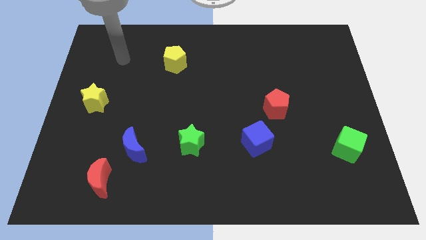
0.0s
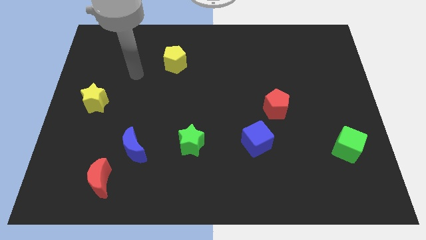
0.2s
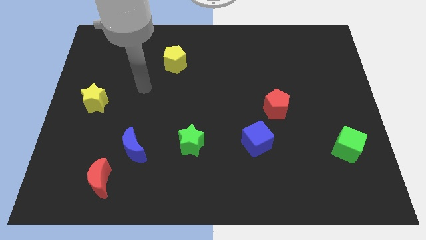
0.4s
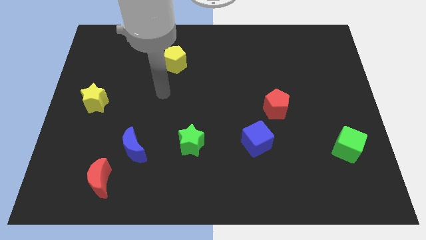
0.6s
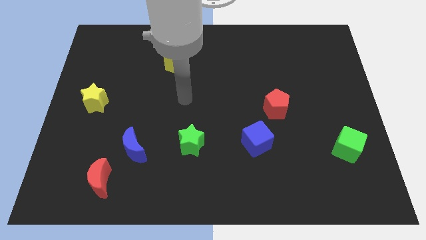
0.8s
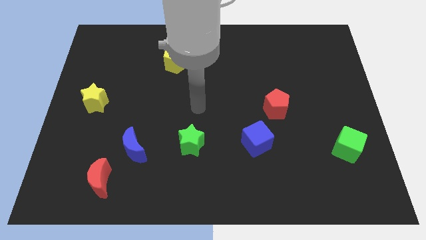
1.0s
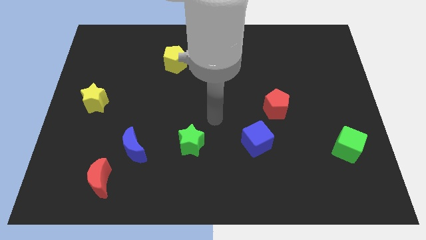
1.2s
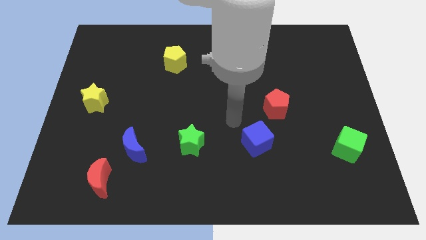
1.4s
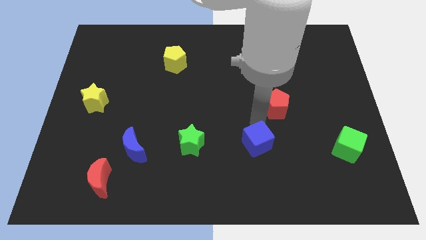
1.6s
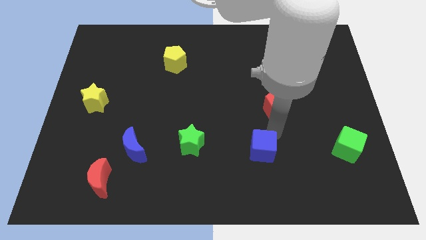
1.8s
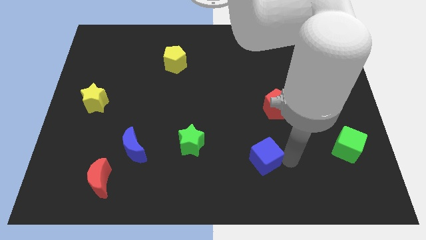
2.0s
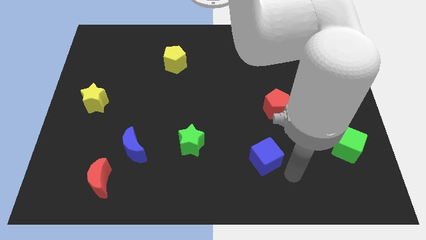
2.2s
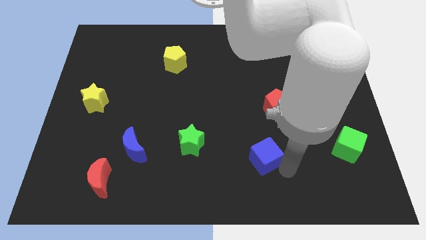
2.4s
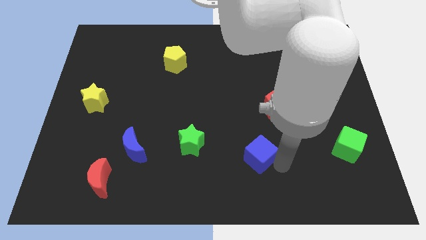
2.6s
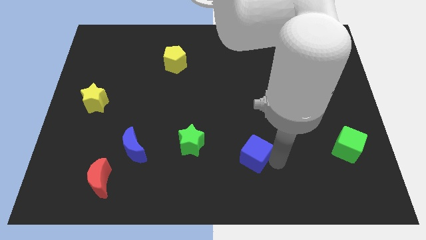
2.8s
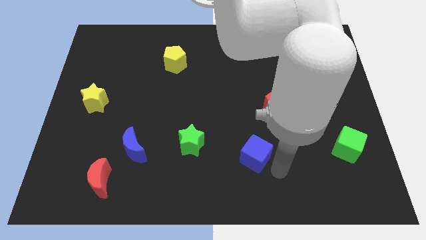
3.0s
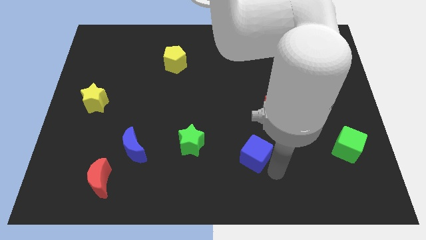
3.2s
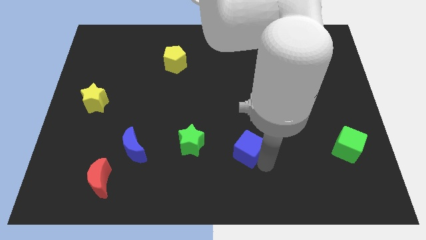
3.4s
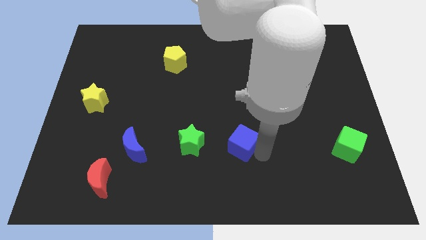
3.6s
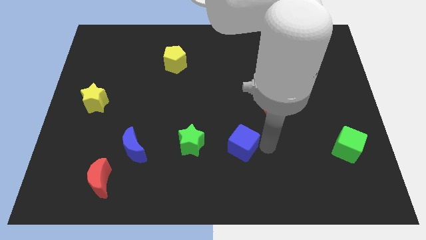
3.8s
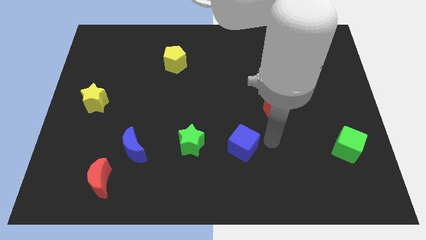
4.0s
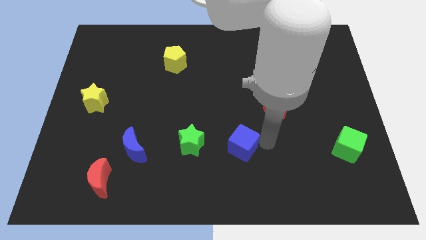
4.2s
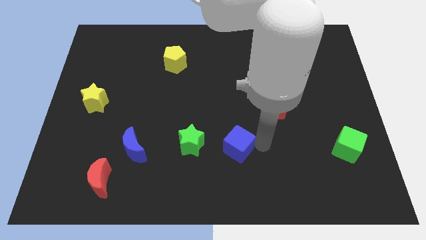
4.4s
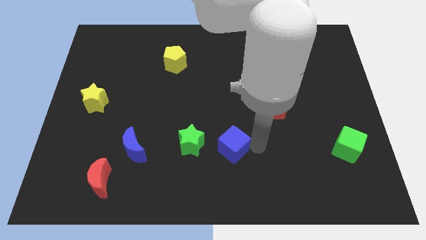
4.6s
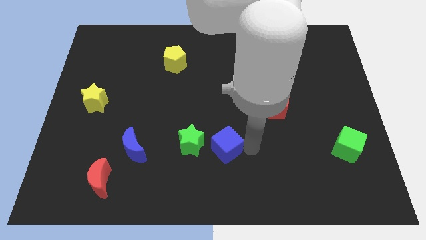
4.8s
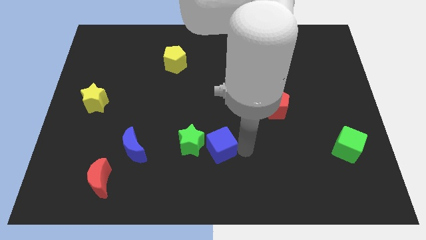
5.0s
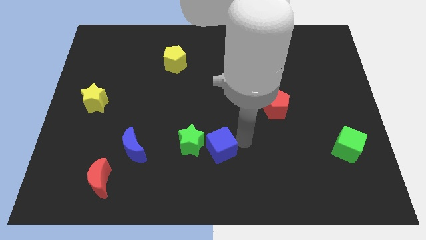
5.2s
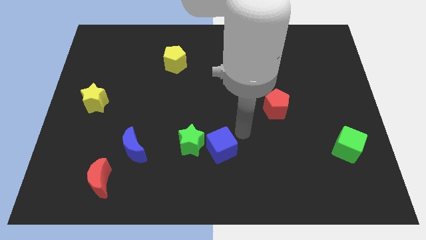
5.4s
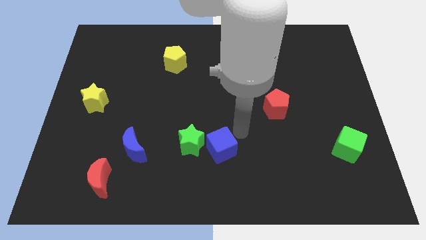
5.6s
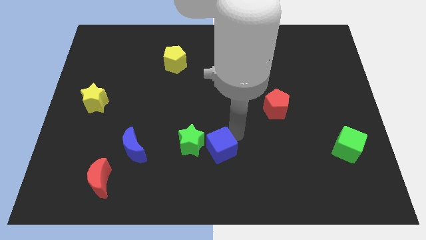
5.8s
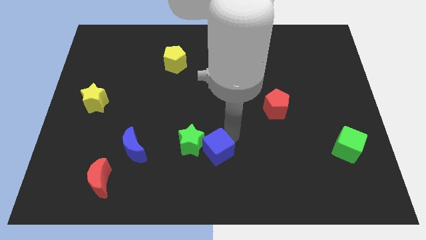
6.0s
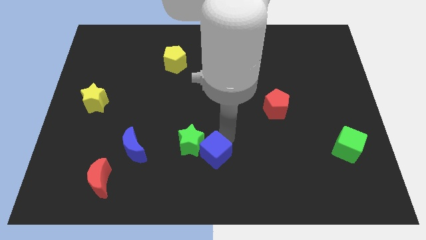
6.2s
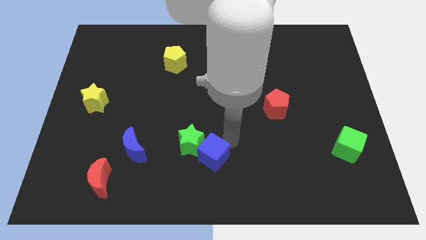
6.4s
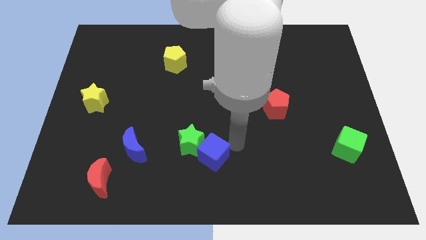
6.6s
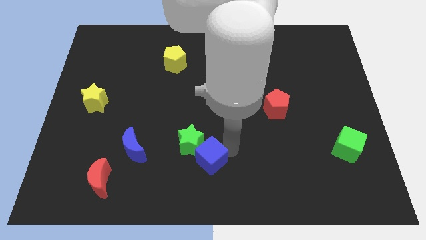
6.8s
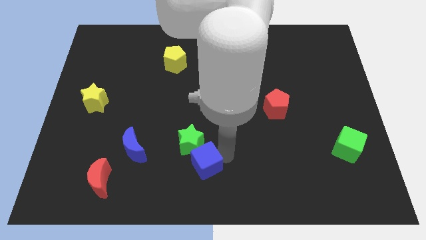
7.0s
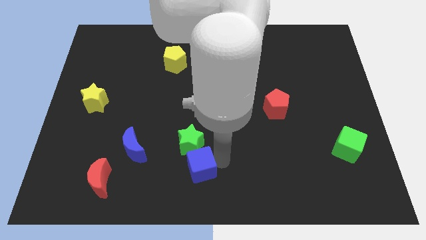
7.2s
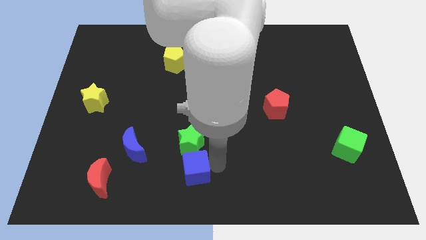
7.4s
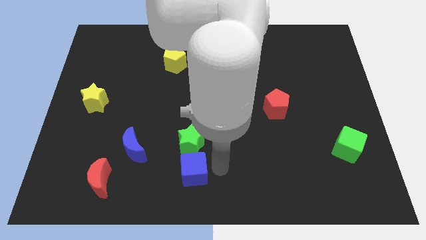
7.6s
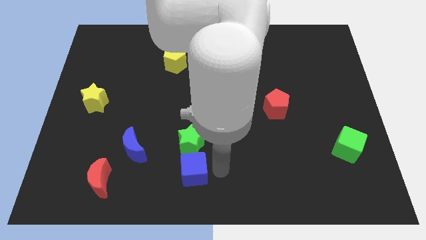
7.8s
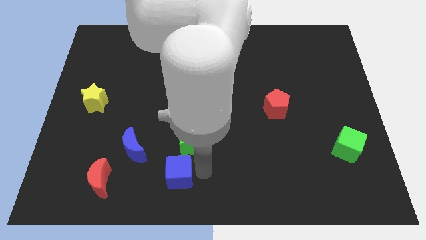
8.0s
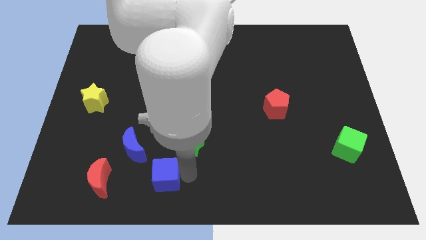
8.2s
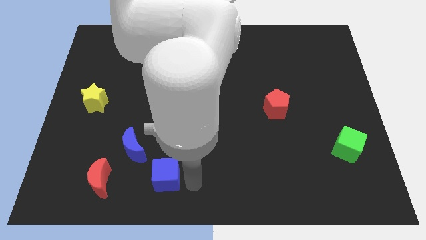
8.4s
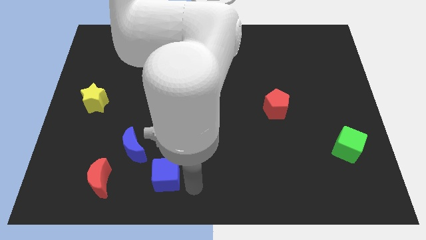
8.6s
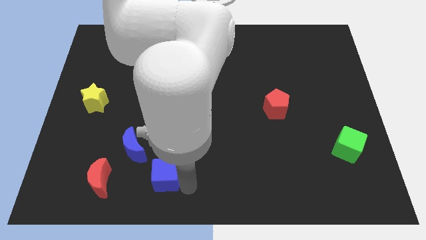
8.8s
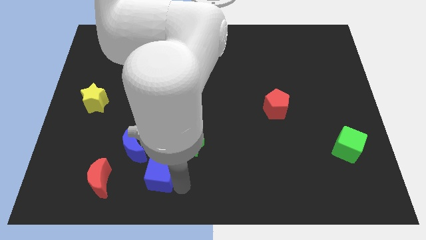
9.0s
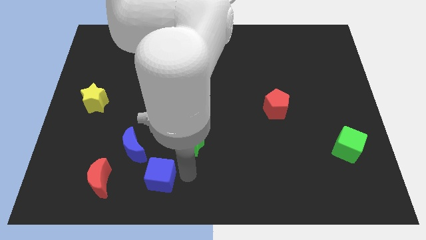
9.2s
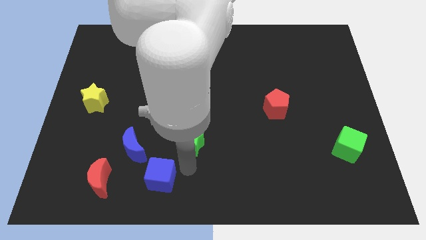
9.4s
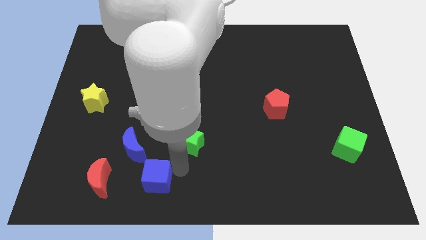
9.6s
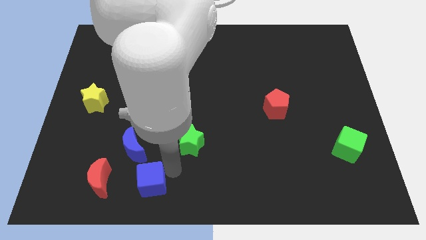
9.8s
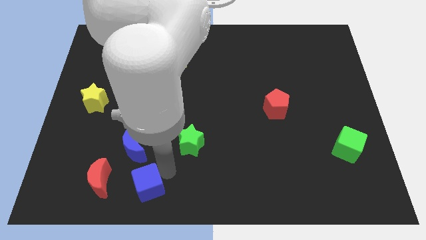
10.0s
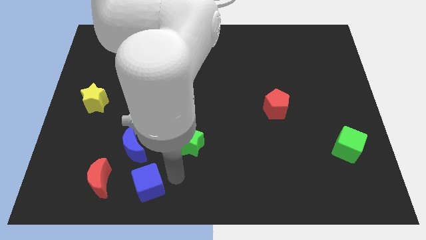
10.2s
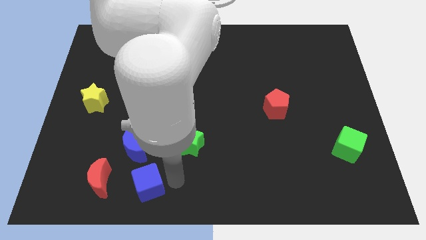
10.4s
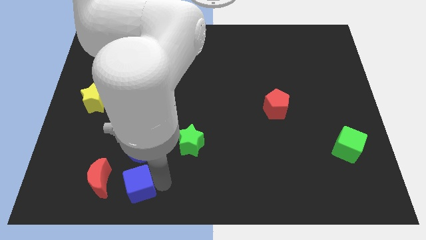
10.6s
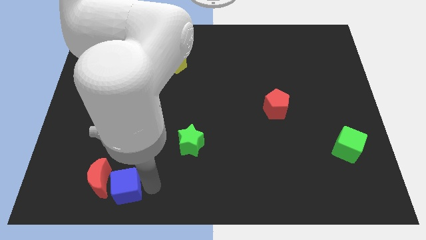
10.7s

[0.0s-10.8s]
push the blue cube next to the red moon

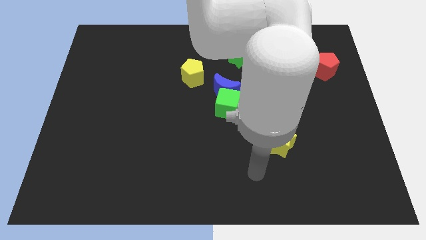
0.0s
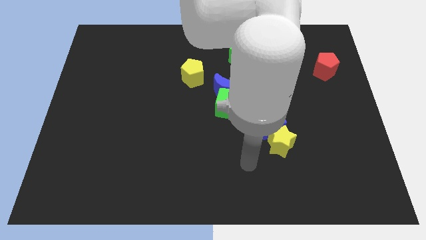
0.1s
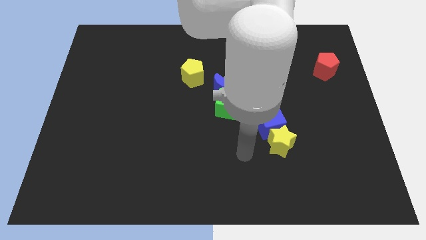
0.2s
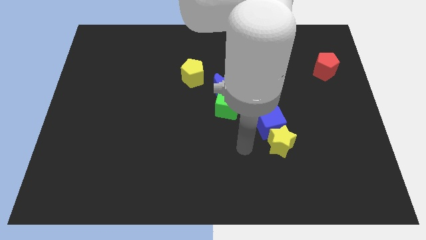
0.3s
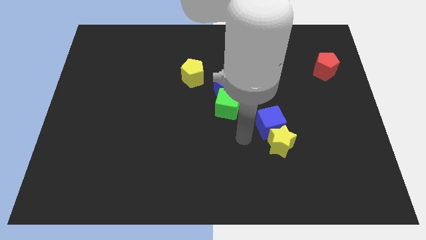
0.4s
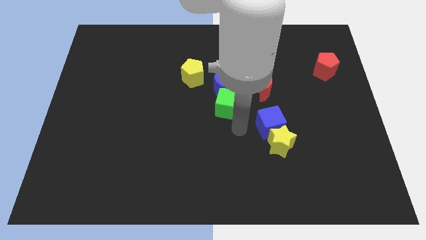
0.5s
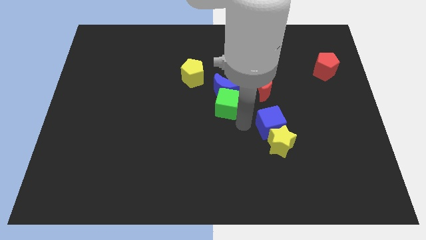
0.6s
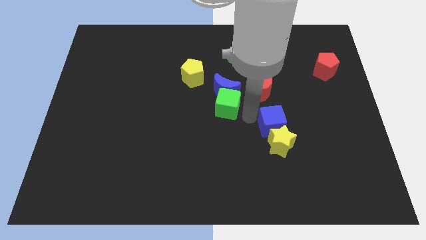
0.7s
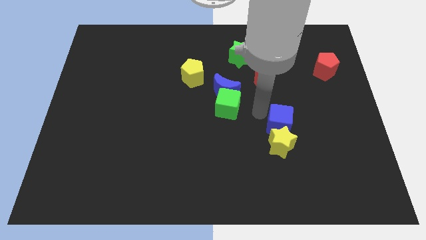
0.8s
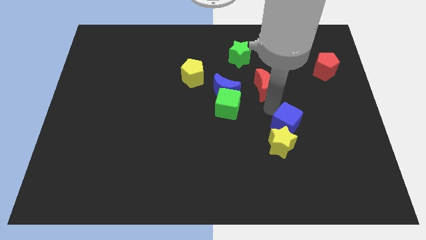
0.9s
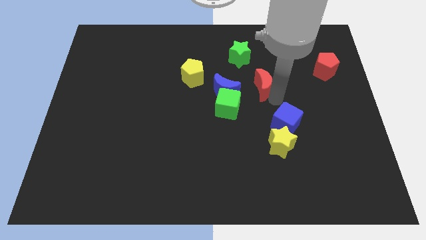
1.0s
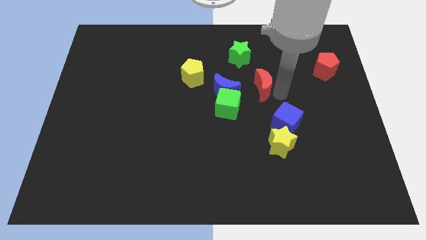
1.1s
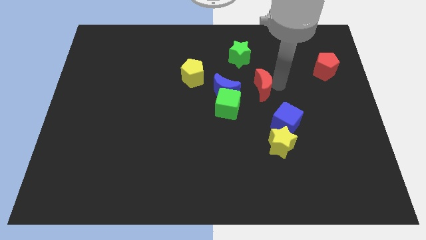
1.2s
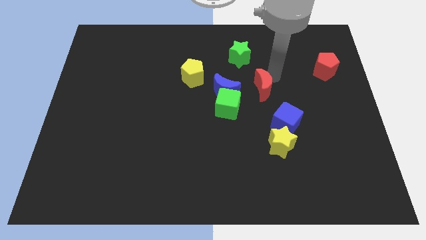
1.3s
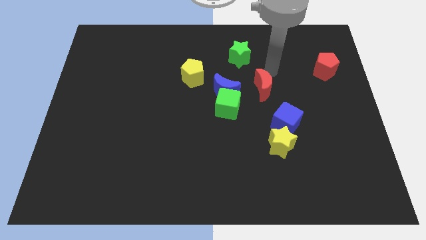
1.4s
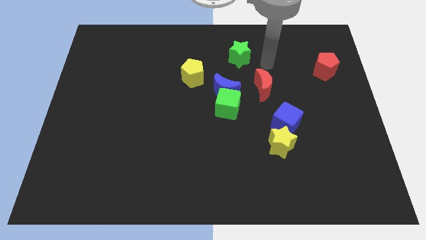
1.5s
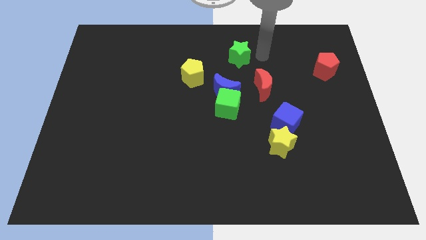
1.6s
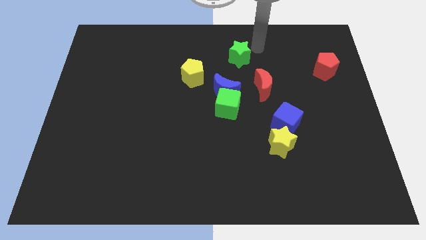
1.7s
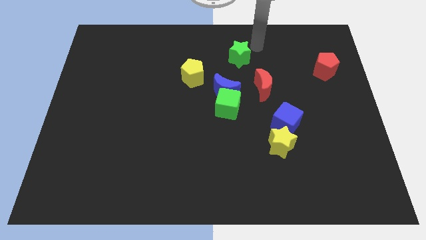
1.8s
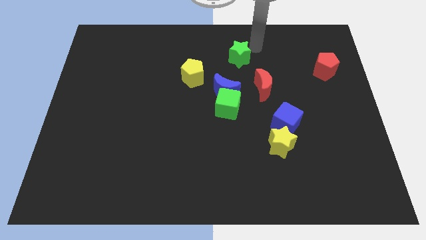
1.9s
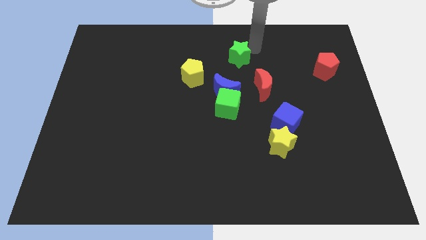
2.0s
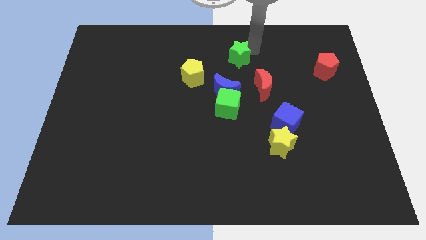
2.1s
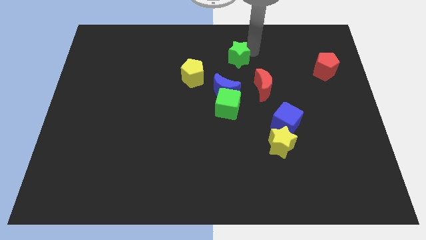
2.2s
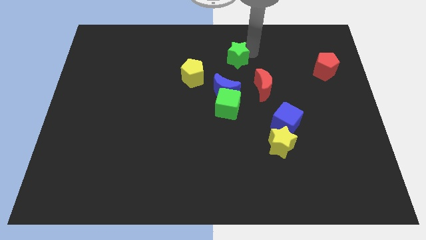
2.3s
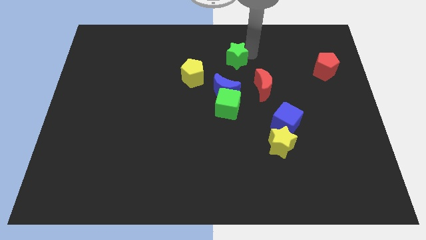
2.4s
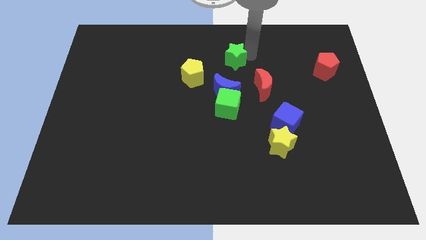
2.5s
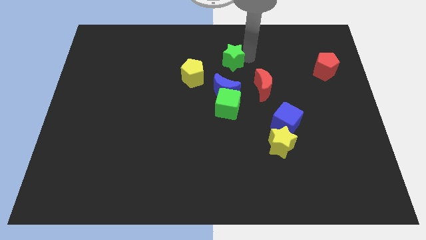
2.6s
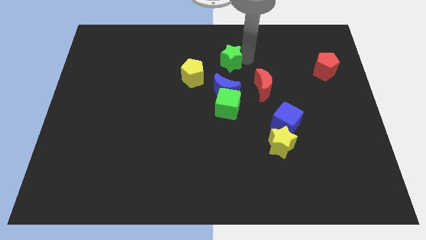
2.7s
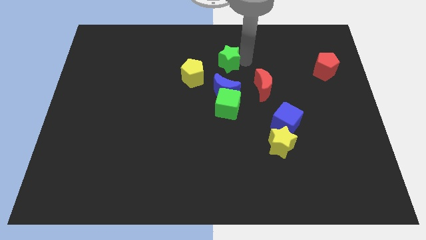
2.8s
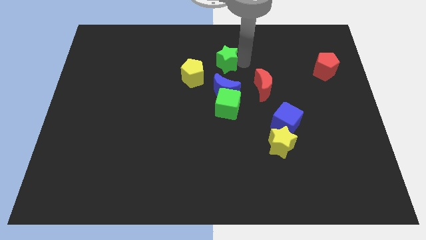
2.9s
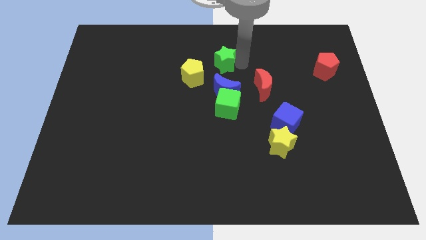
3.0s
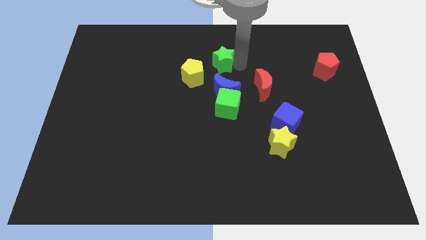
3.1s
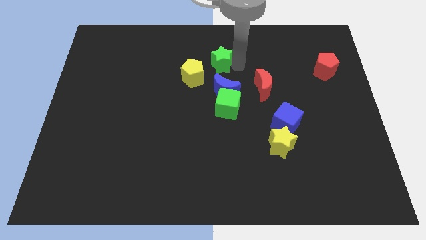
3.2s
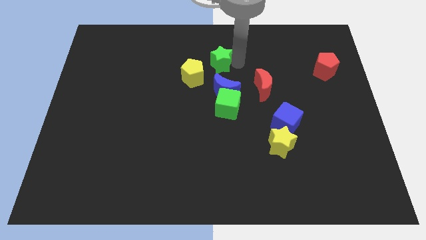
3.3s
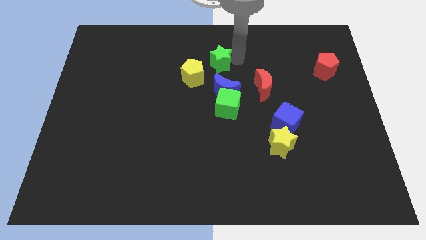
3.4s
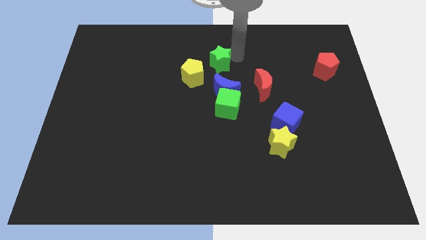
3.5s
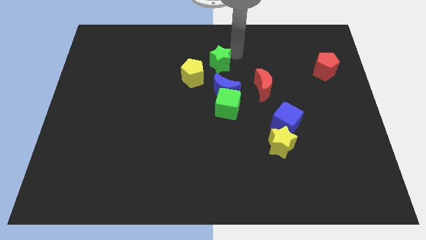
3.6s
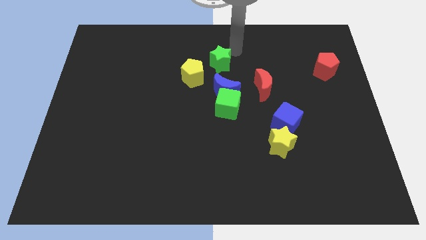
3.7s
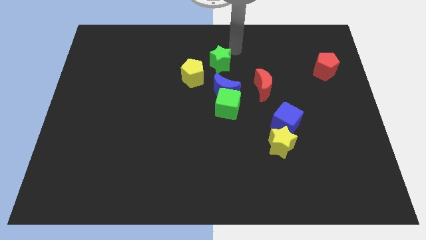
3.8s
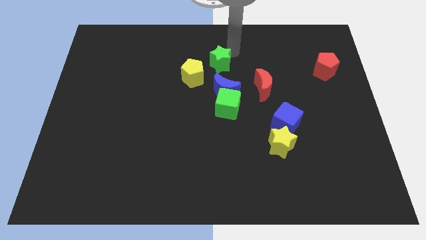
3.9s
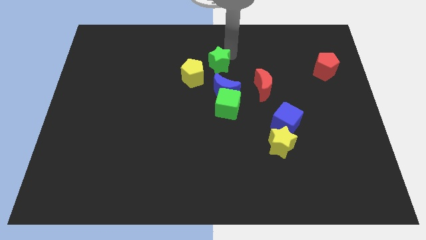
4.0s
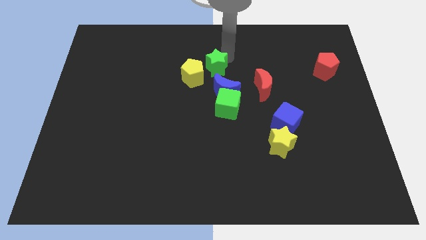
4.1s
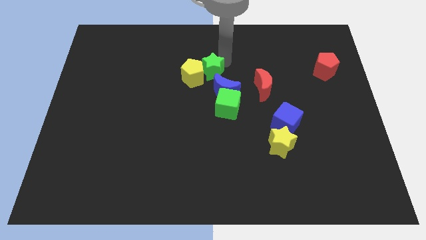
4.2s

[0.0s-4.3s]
move the green star next to the yellow pentagon
